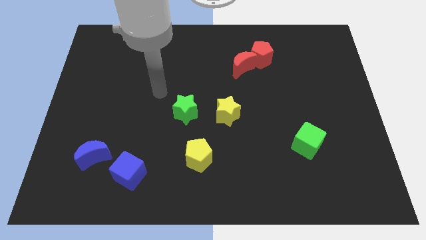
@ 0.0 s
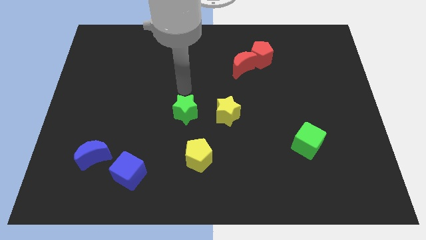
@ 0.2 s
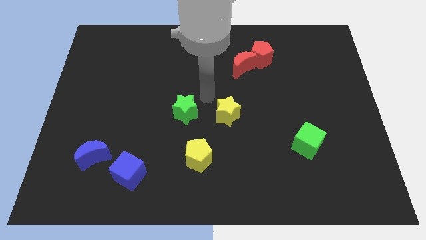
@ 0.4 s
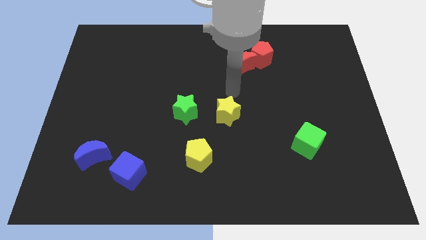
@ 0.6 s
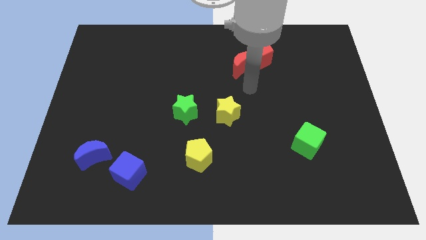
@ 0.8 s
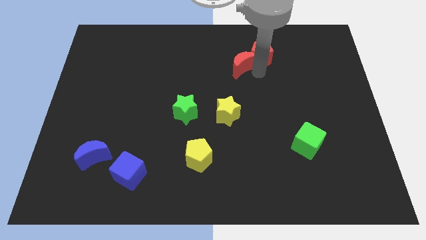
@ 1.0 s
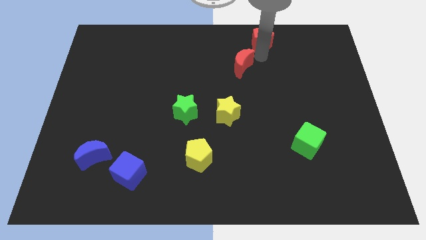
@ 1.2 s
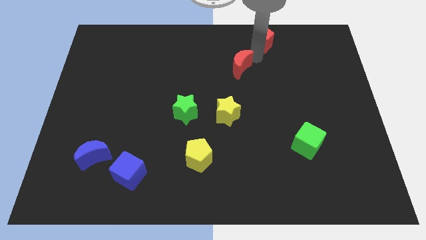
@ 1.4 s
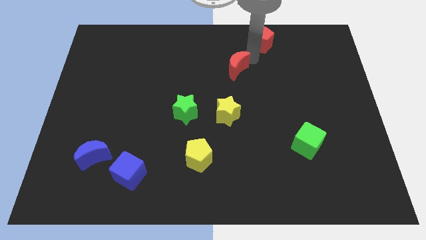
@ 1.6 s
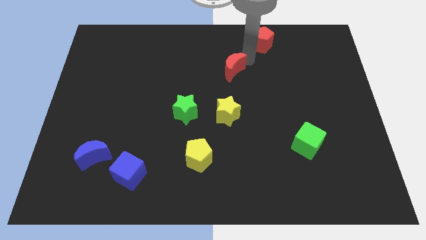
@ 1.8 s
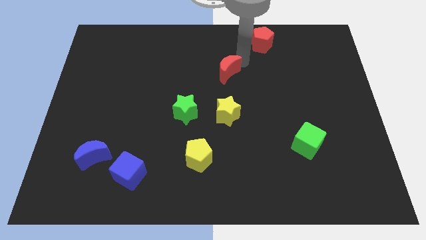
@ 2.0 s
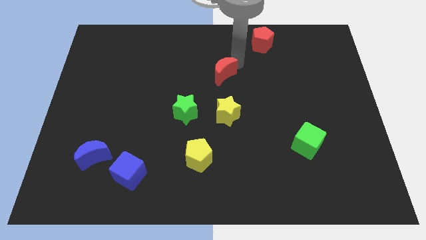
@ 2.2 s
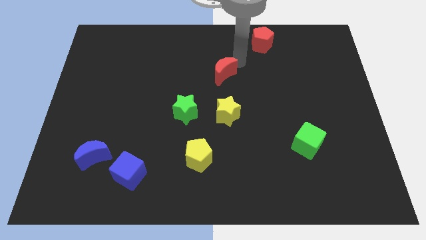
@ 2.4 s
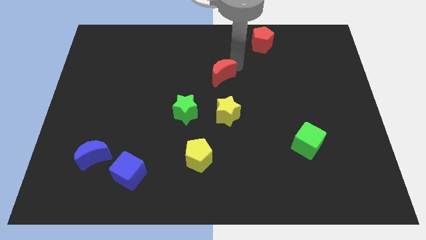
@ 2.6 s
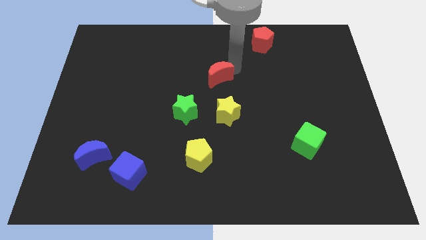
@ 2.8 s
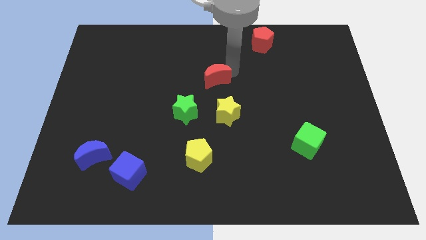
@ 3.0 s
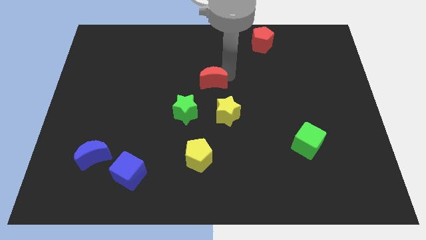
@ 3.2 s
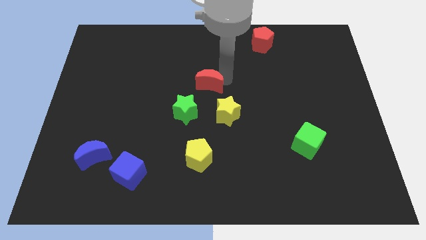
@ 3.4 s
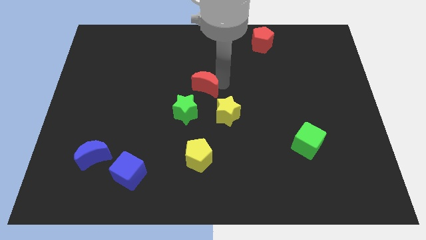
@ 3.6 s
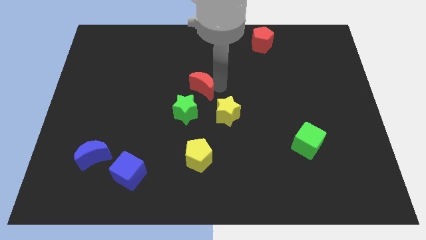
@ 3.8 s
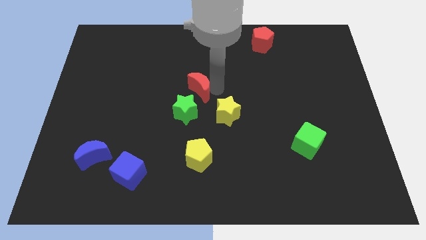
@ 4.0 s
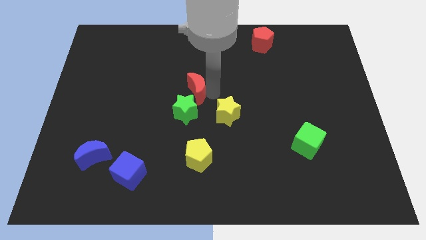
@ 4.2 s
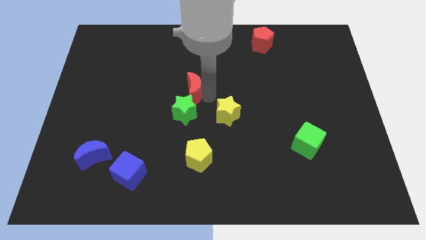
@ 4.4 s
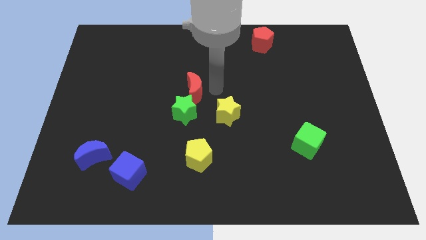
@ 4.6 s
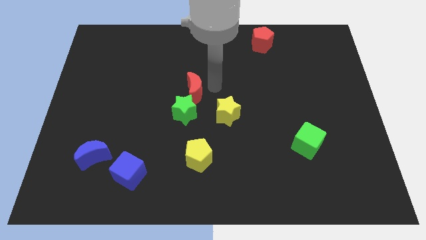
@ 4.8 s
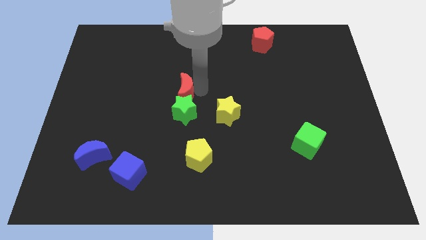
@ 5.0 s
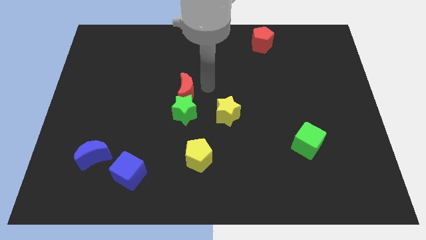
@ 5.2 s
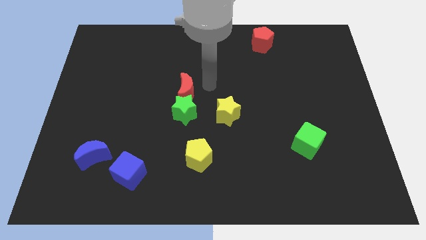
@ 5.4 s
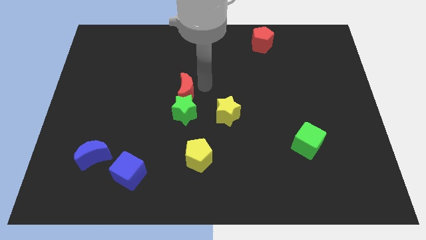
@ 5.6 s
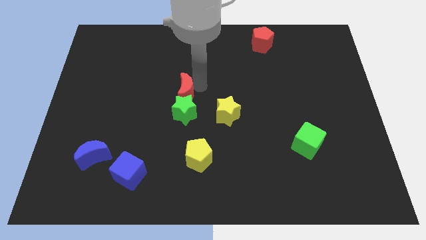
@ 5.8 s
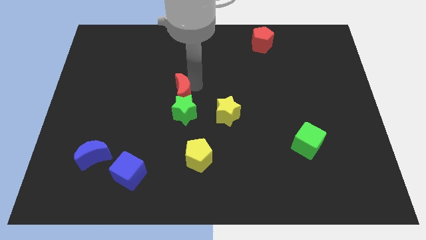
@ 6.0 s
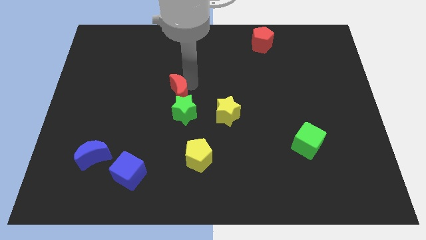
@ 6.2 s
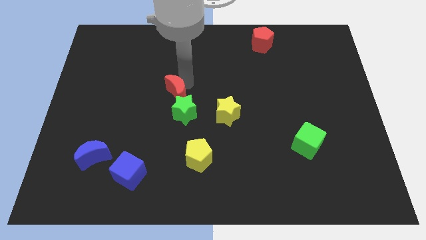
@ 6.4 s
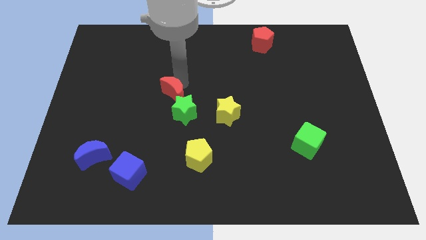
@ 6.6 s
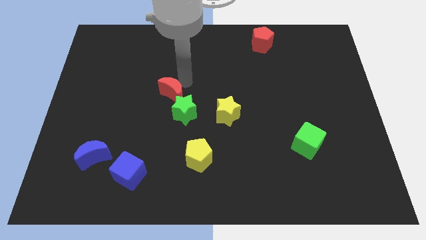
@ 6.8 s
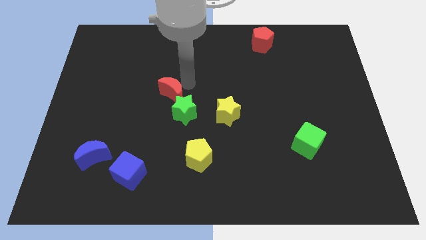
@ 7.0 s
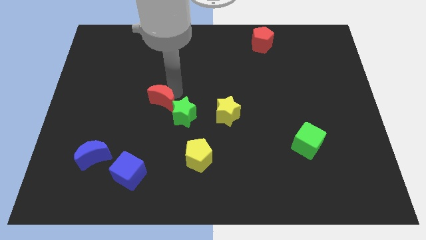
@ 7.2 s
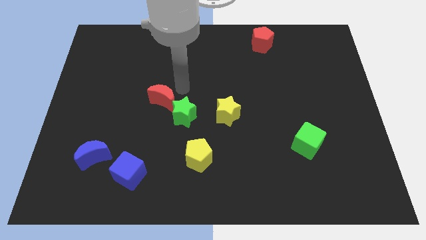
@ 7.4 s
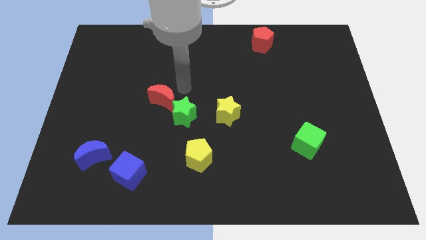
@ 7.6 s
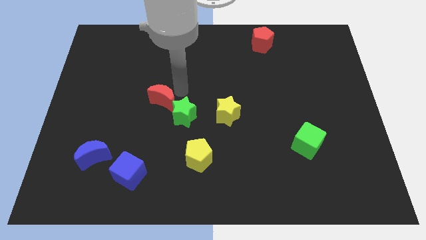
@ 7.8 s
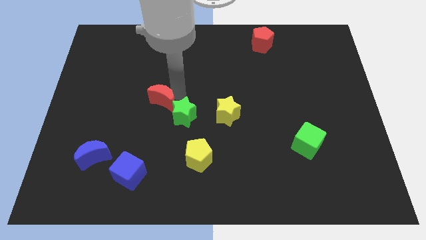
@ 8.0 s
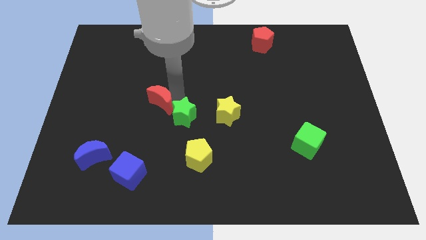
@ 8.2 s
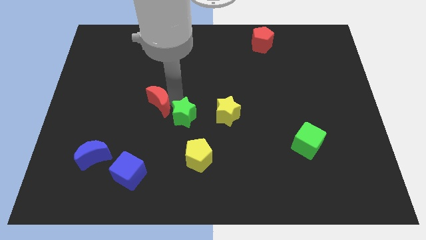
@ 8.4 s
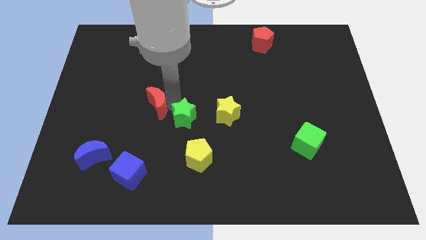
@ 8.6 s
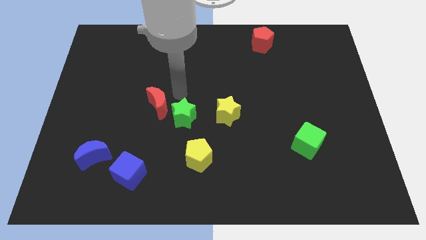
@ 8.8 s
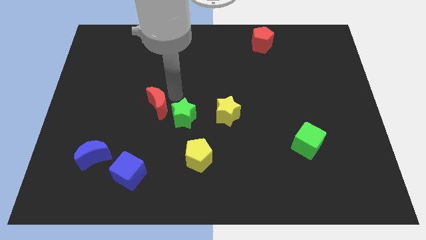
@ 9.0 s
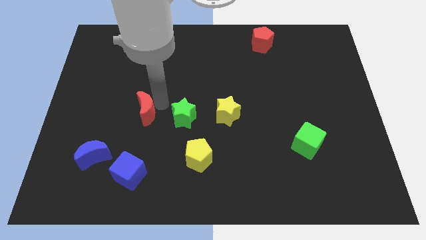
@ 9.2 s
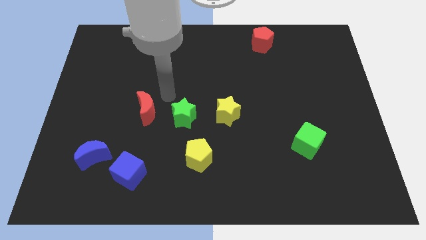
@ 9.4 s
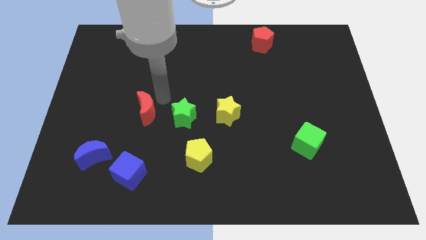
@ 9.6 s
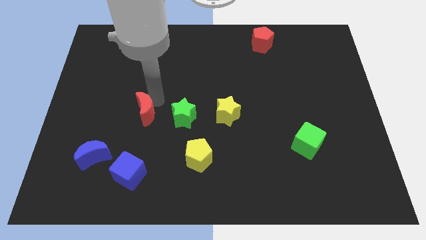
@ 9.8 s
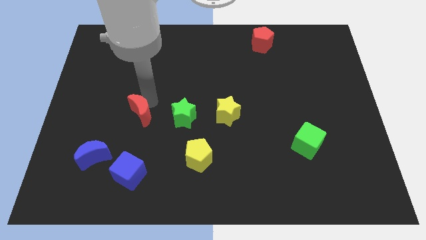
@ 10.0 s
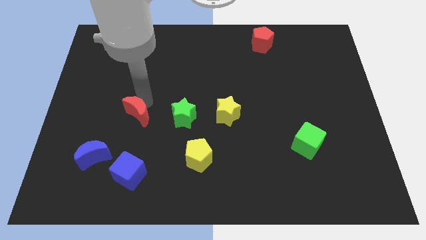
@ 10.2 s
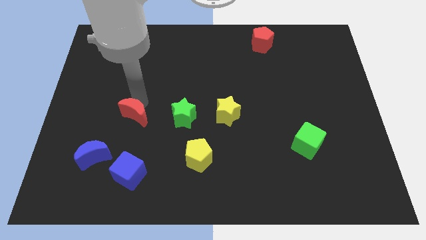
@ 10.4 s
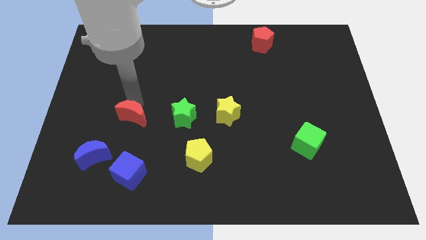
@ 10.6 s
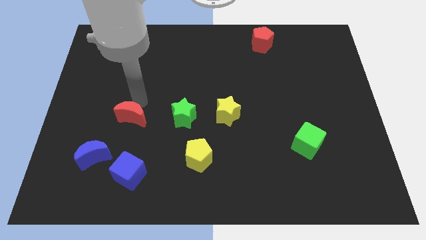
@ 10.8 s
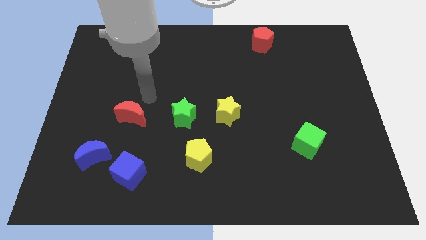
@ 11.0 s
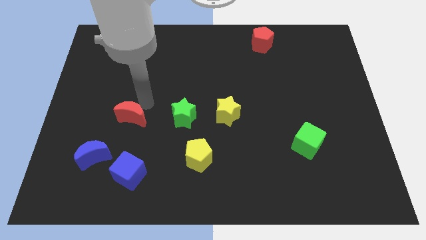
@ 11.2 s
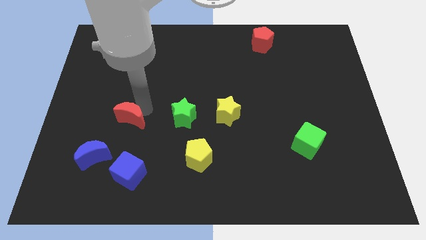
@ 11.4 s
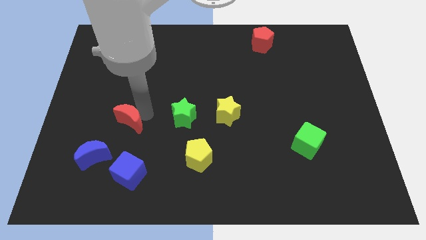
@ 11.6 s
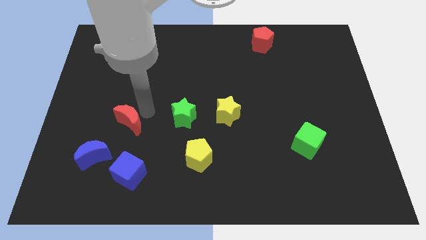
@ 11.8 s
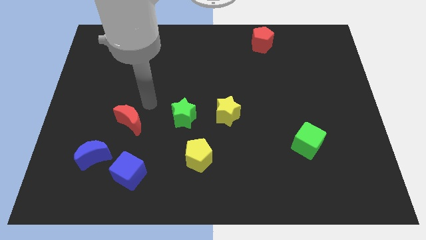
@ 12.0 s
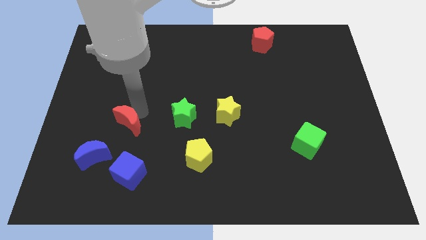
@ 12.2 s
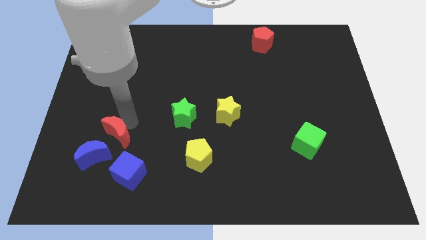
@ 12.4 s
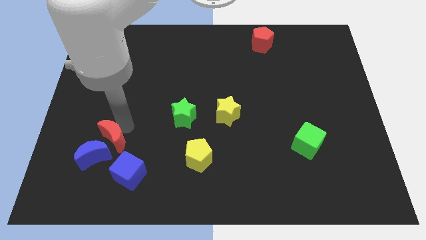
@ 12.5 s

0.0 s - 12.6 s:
move the red moon towards the blue moon

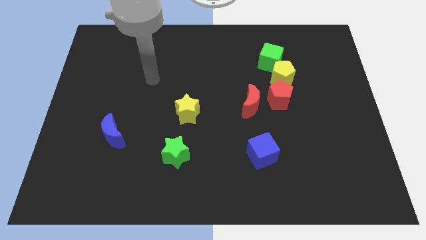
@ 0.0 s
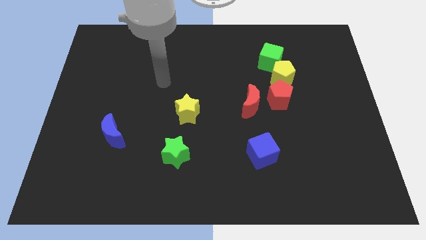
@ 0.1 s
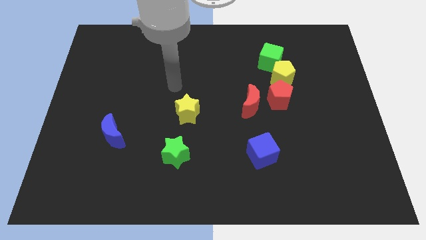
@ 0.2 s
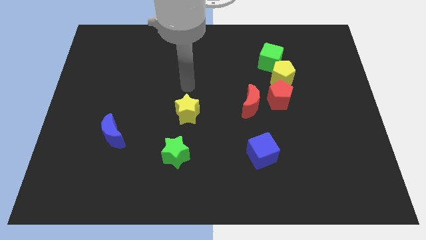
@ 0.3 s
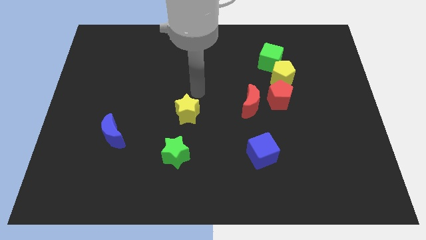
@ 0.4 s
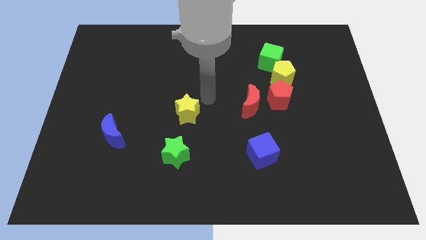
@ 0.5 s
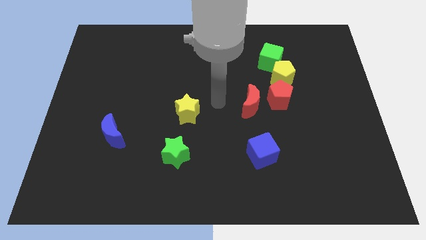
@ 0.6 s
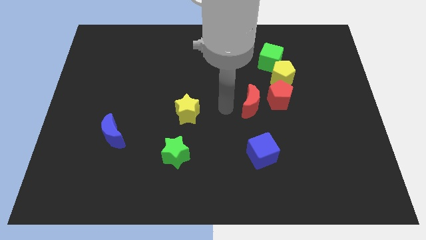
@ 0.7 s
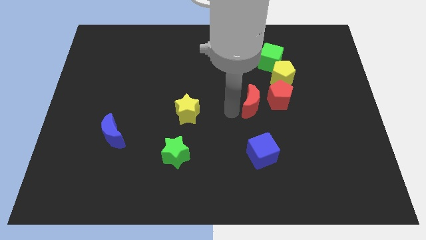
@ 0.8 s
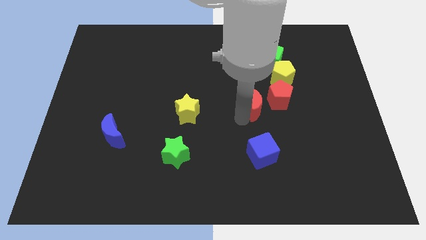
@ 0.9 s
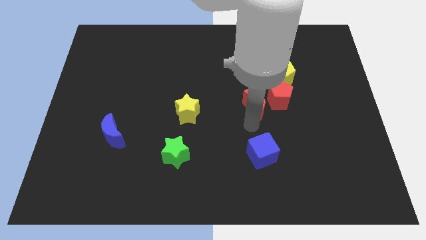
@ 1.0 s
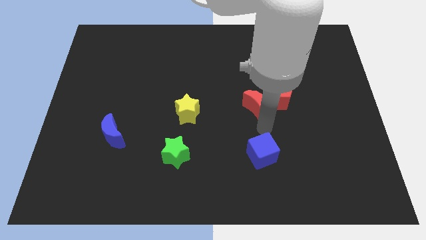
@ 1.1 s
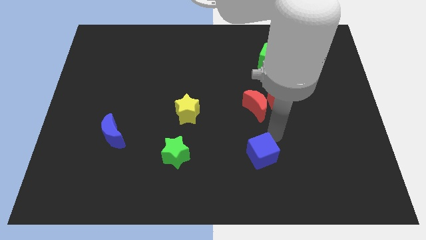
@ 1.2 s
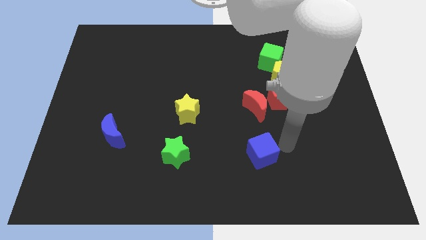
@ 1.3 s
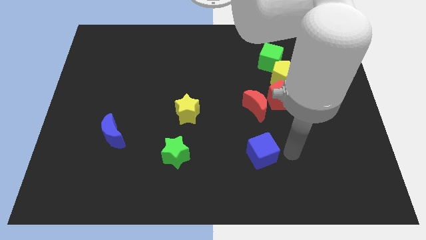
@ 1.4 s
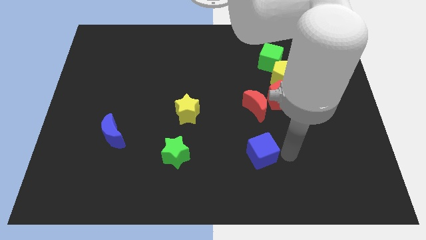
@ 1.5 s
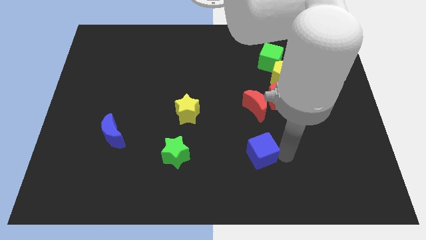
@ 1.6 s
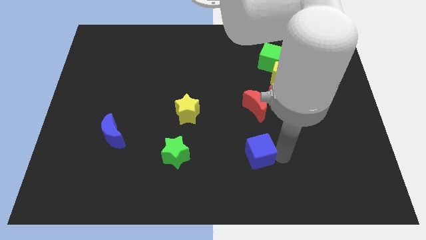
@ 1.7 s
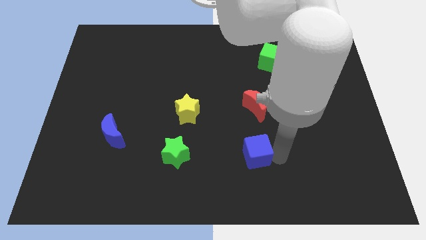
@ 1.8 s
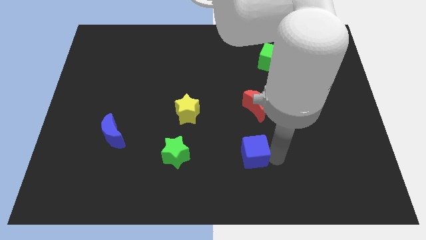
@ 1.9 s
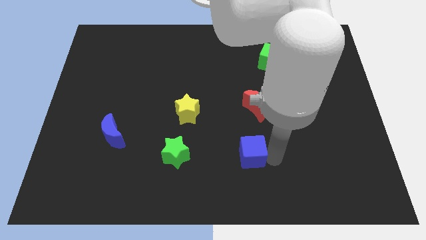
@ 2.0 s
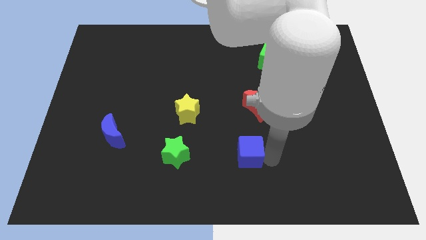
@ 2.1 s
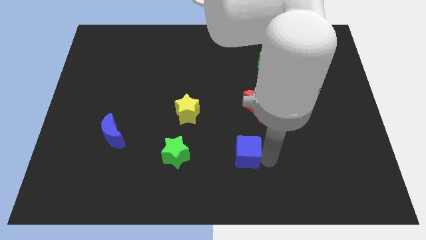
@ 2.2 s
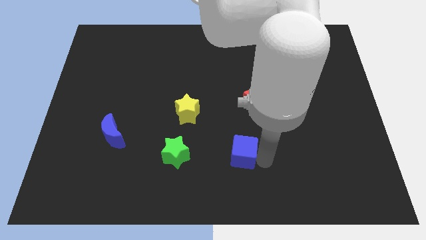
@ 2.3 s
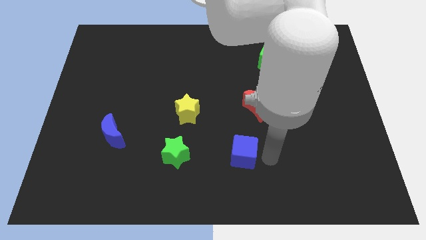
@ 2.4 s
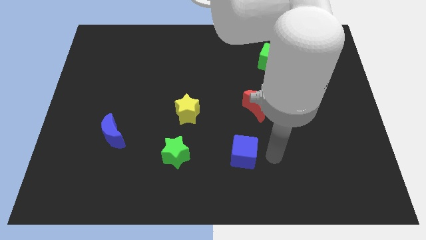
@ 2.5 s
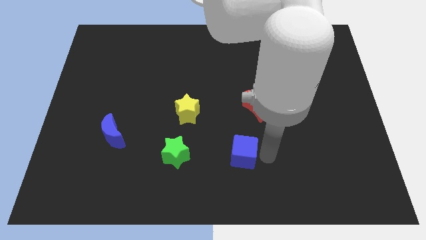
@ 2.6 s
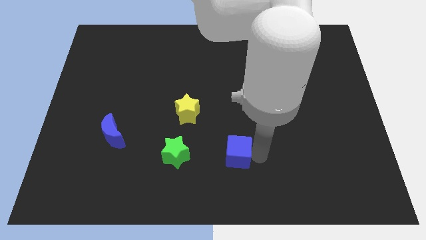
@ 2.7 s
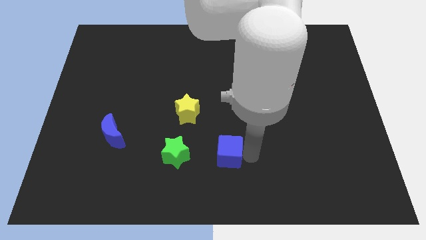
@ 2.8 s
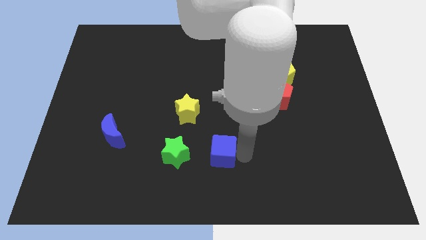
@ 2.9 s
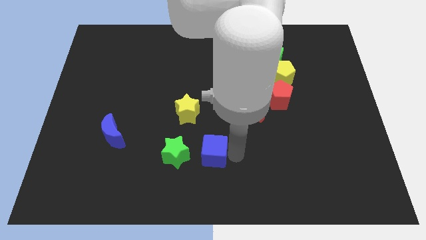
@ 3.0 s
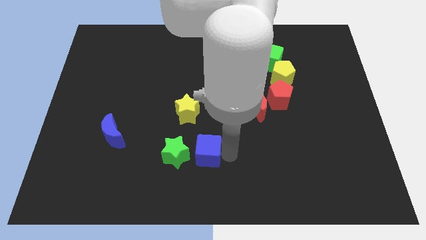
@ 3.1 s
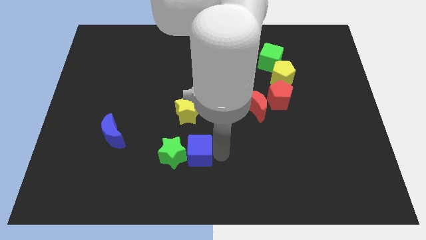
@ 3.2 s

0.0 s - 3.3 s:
move the blue cube towards the green star
